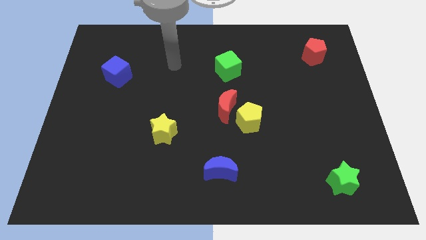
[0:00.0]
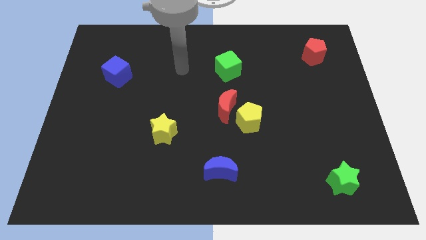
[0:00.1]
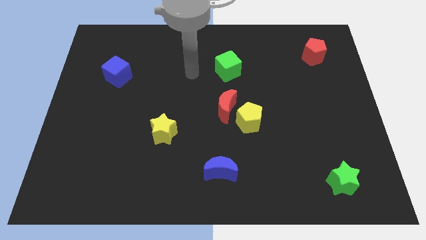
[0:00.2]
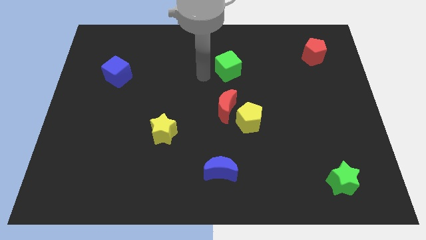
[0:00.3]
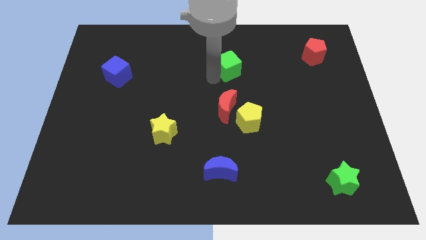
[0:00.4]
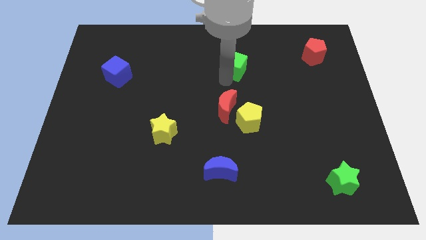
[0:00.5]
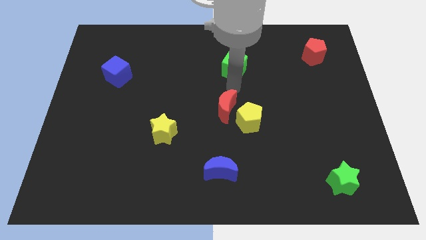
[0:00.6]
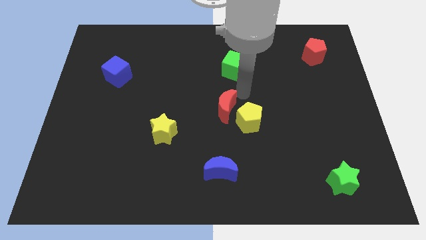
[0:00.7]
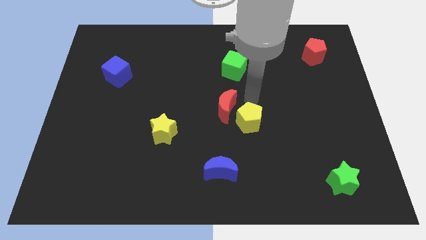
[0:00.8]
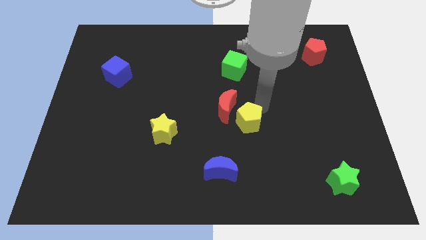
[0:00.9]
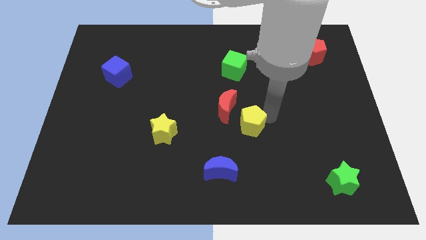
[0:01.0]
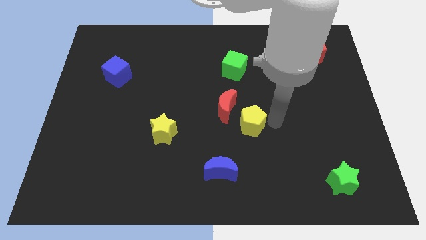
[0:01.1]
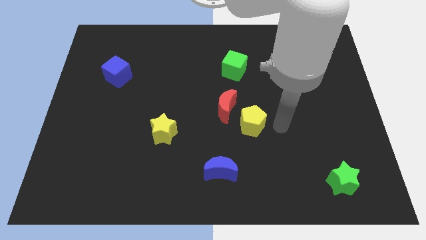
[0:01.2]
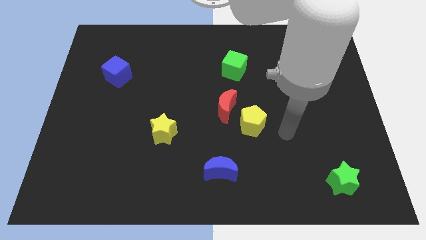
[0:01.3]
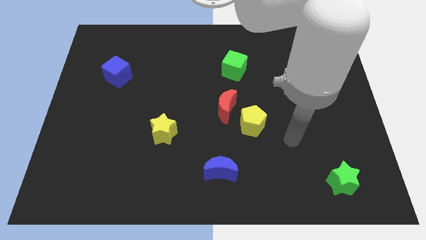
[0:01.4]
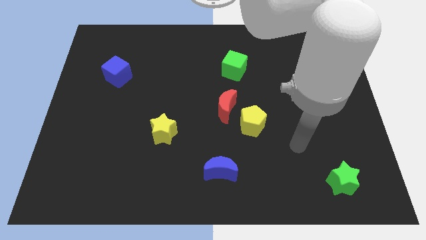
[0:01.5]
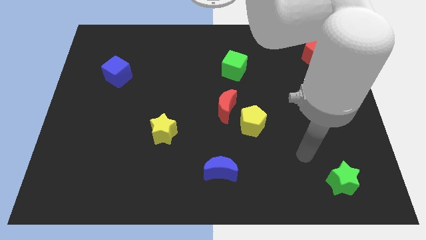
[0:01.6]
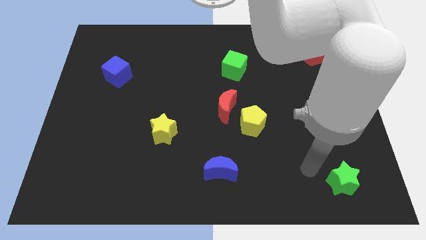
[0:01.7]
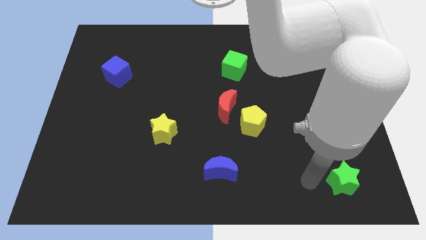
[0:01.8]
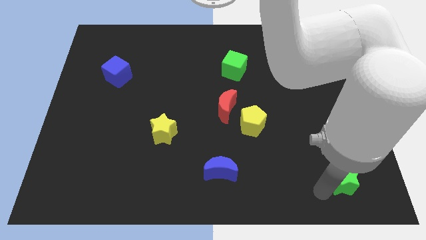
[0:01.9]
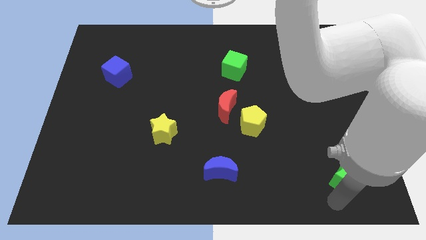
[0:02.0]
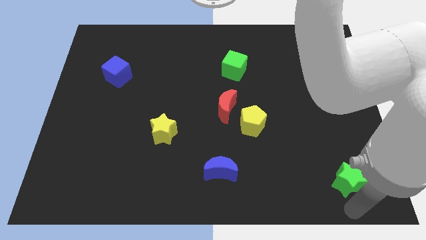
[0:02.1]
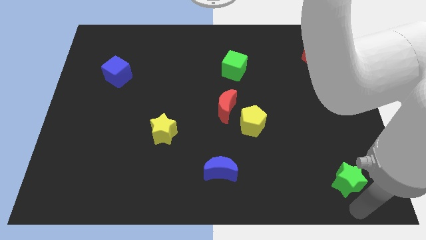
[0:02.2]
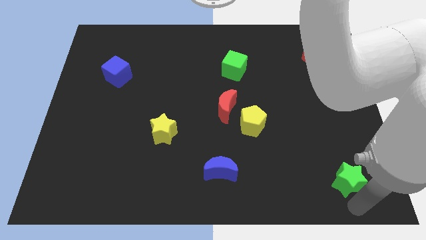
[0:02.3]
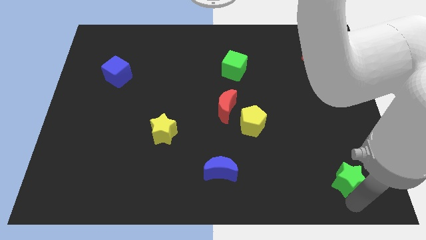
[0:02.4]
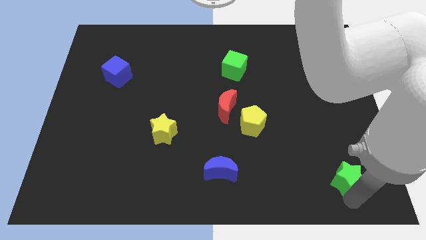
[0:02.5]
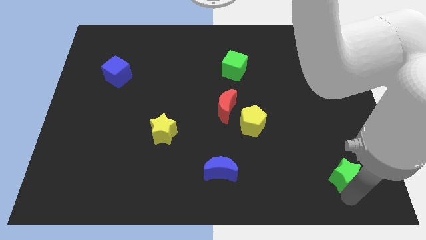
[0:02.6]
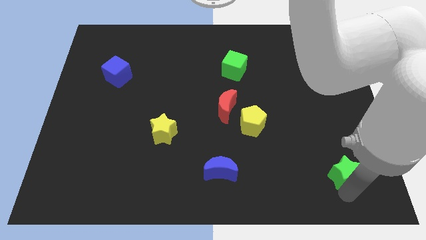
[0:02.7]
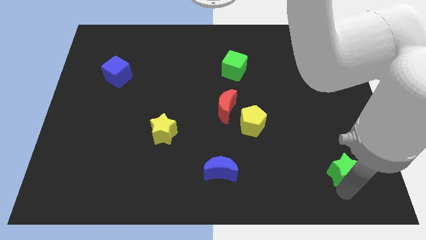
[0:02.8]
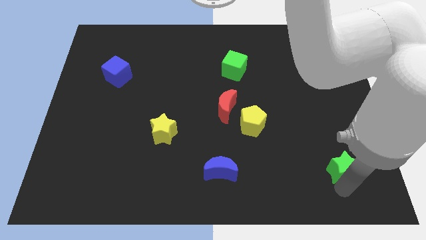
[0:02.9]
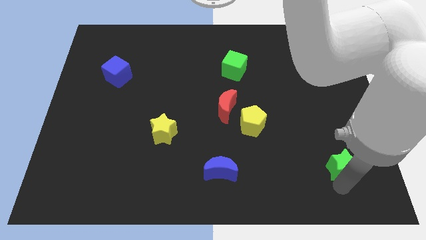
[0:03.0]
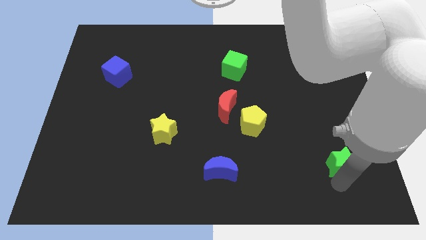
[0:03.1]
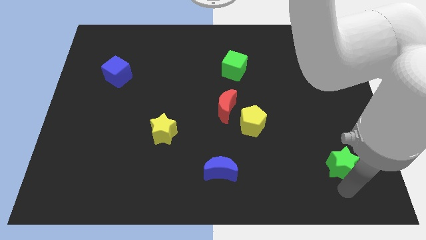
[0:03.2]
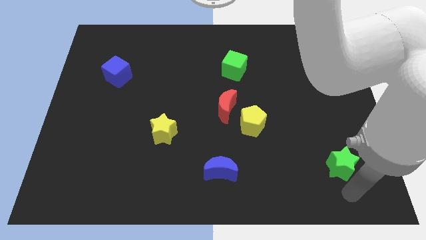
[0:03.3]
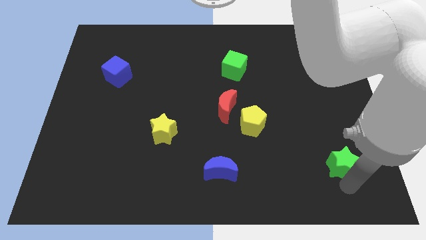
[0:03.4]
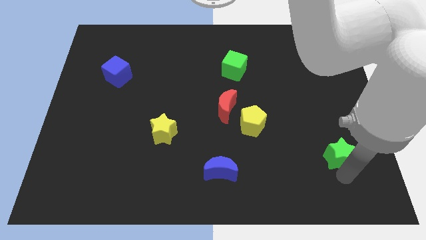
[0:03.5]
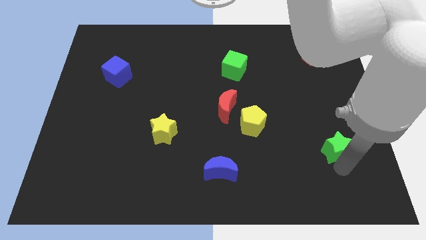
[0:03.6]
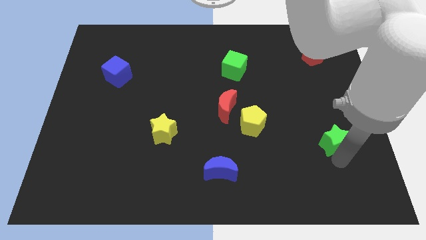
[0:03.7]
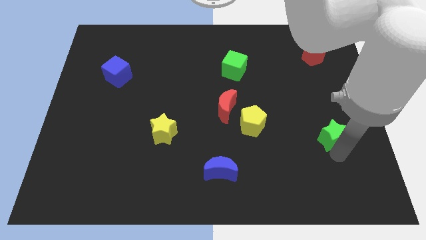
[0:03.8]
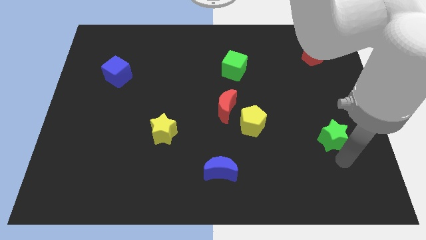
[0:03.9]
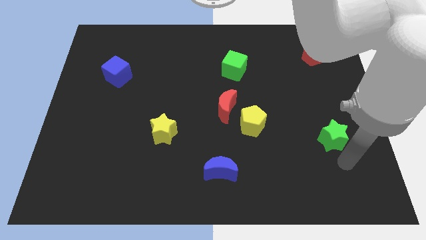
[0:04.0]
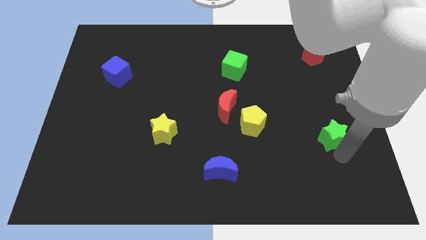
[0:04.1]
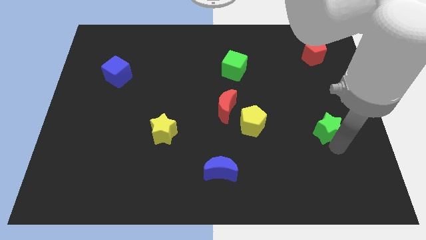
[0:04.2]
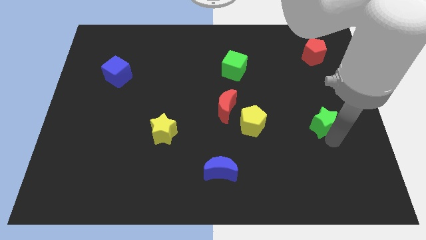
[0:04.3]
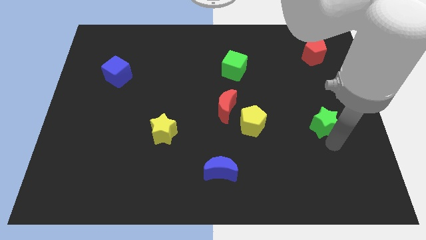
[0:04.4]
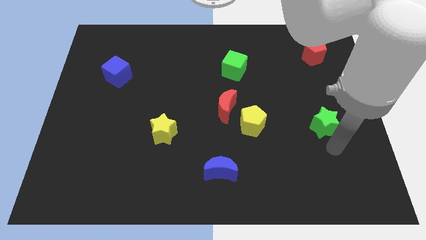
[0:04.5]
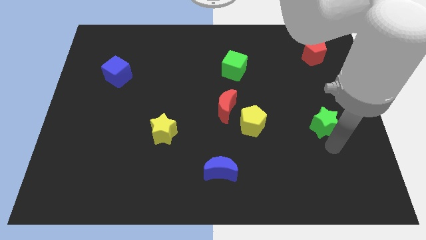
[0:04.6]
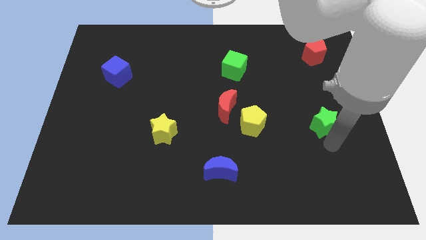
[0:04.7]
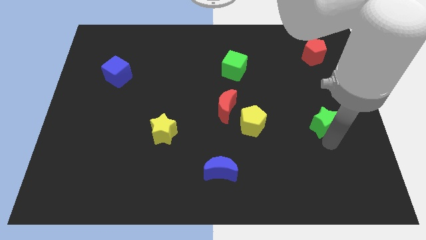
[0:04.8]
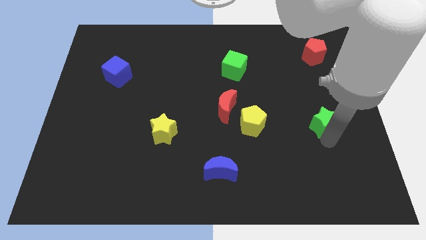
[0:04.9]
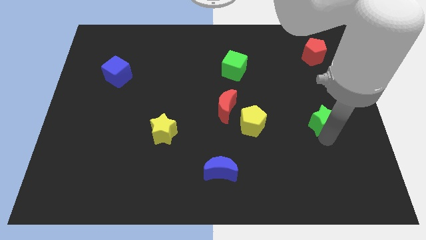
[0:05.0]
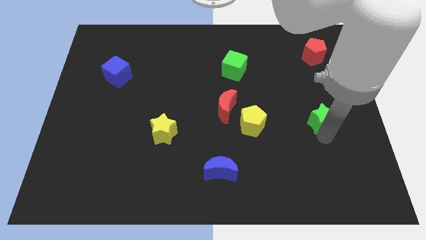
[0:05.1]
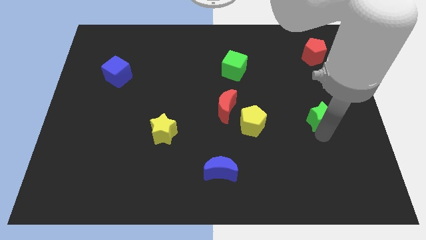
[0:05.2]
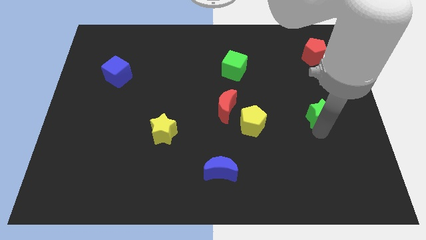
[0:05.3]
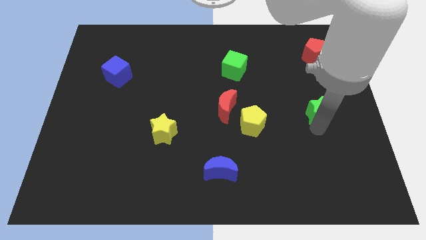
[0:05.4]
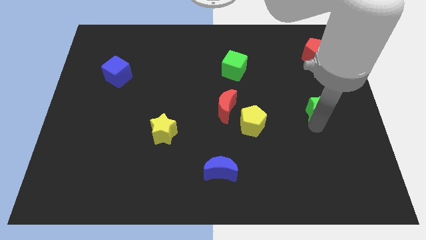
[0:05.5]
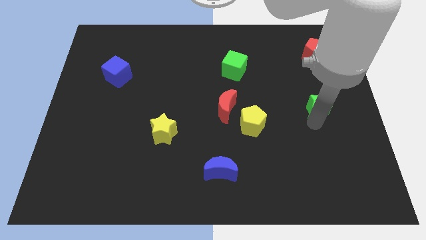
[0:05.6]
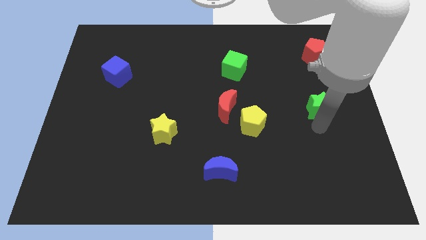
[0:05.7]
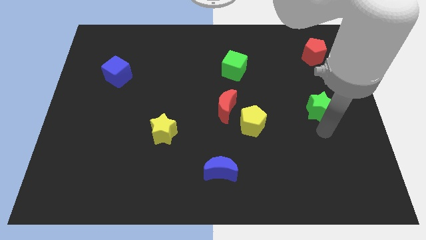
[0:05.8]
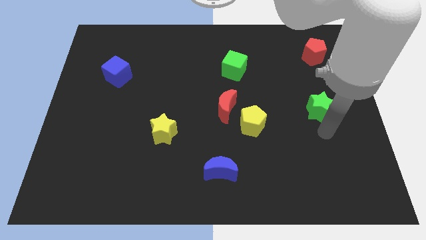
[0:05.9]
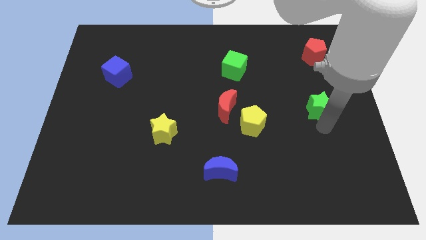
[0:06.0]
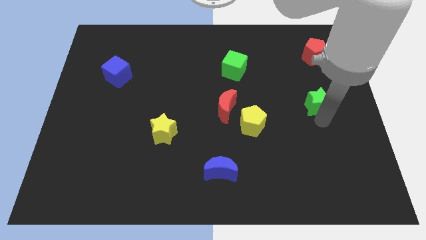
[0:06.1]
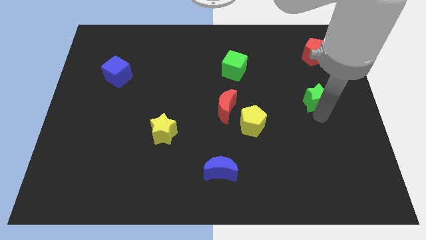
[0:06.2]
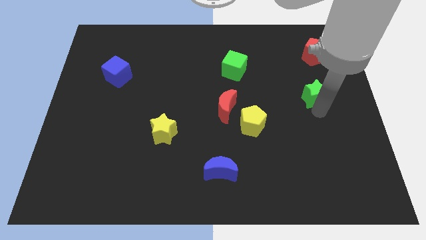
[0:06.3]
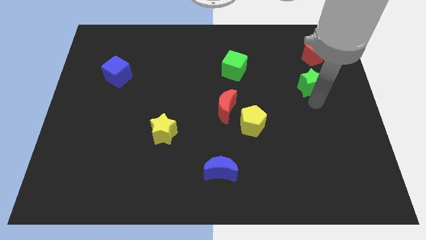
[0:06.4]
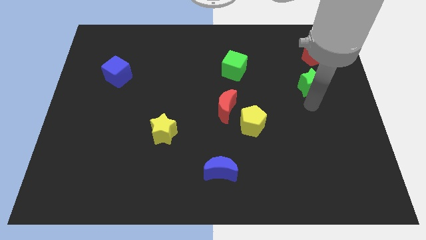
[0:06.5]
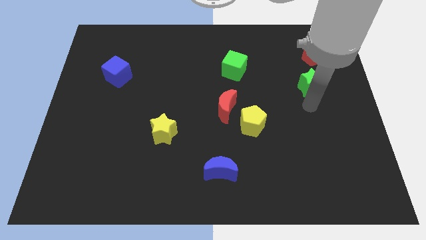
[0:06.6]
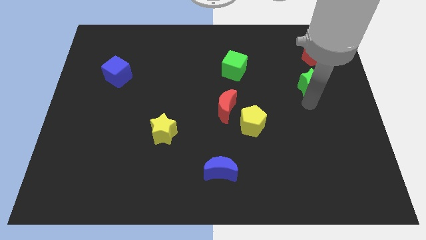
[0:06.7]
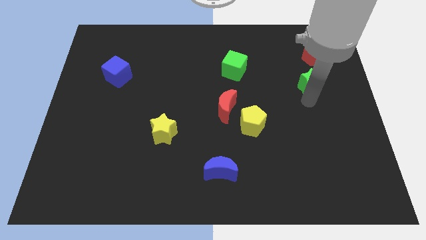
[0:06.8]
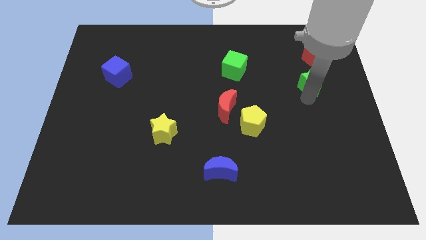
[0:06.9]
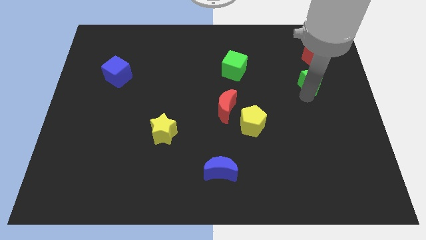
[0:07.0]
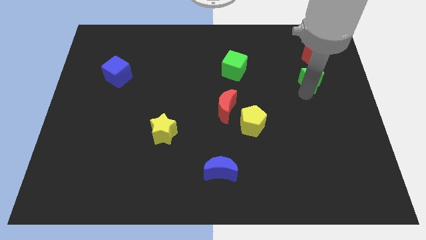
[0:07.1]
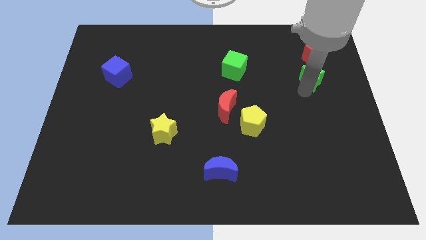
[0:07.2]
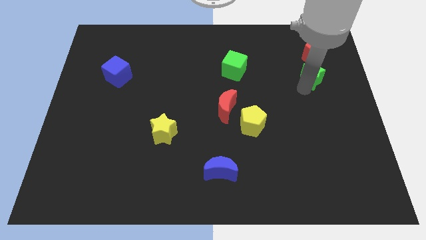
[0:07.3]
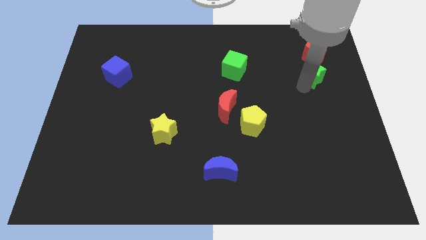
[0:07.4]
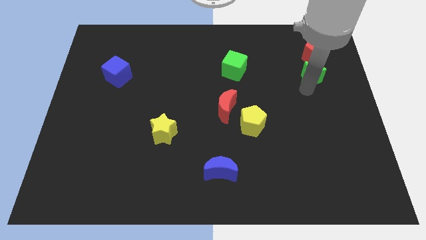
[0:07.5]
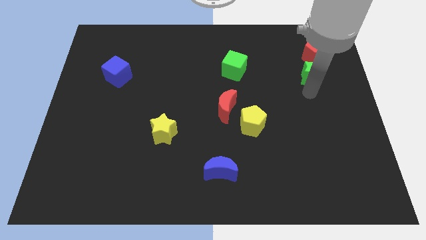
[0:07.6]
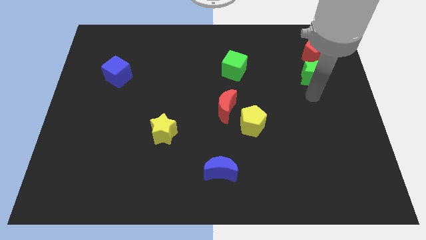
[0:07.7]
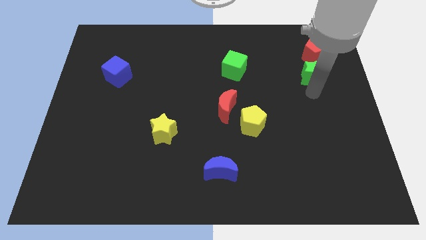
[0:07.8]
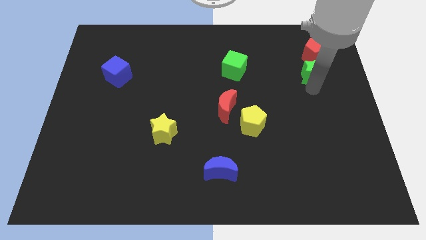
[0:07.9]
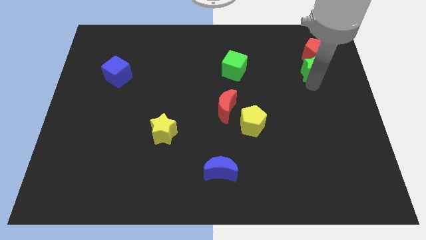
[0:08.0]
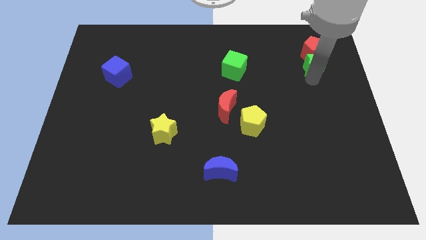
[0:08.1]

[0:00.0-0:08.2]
slide the green star to the red pentagon
